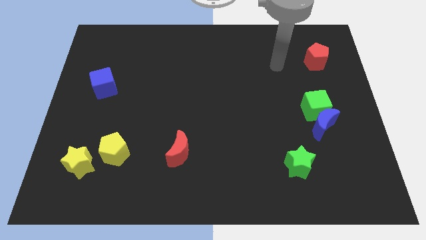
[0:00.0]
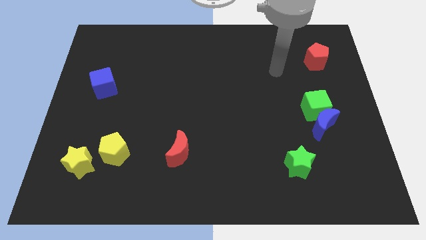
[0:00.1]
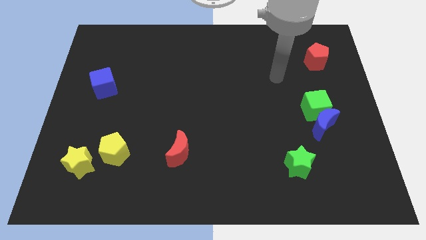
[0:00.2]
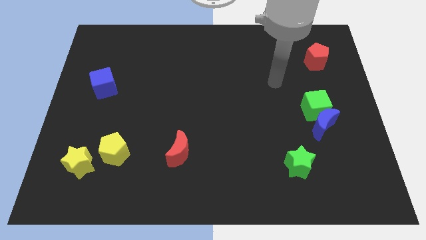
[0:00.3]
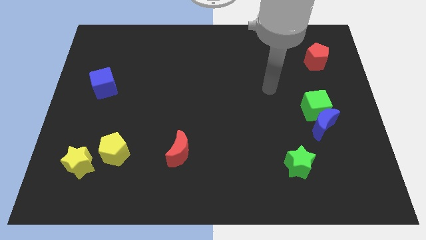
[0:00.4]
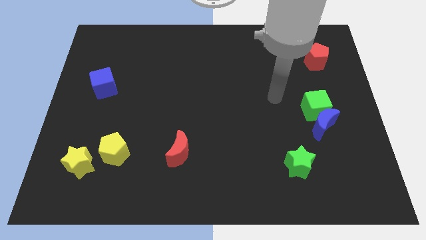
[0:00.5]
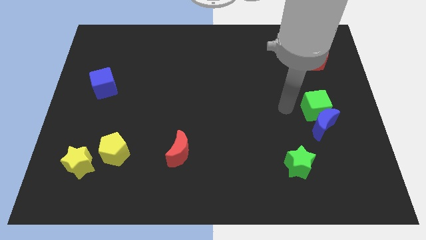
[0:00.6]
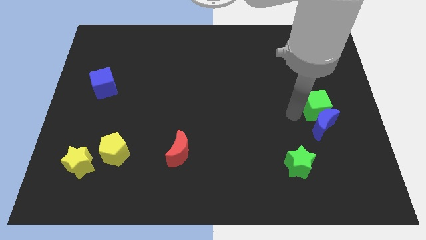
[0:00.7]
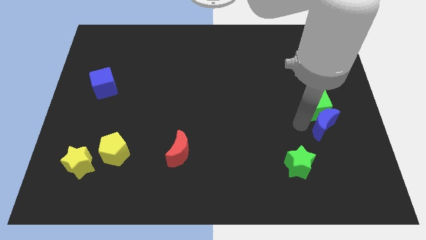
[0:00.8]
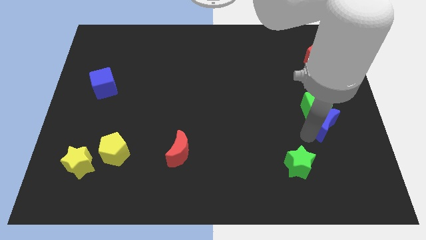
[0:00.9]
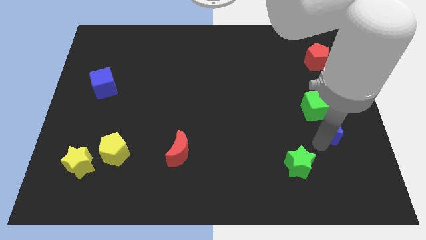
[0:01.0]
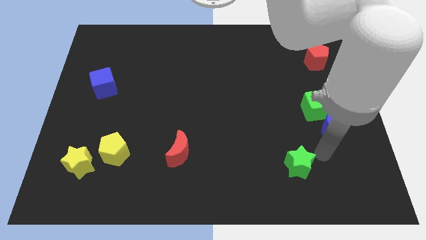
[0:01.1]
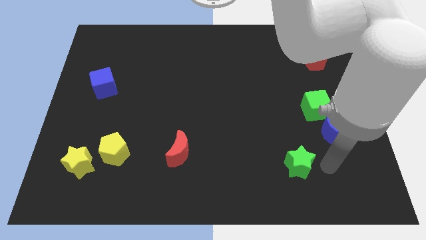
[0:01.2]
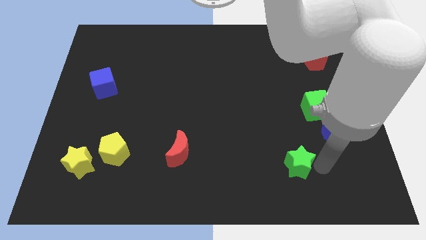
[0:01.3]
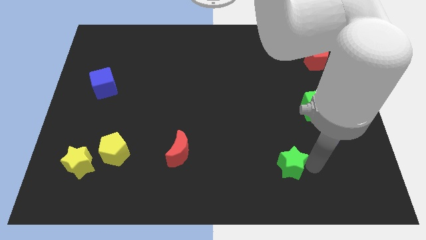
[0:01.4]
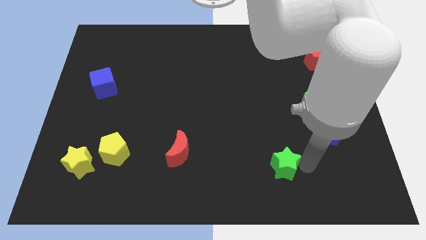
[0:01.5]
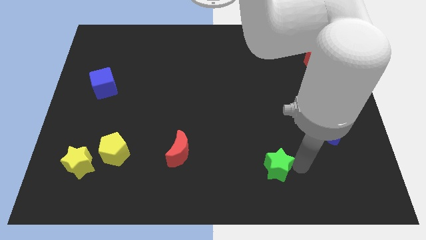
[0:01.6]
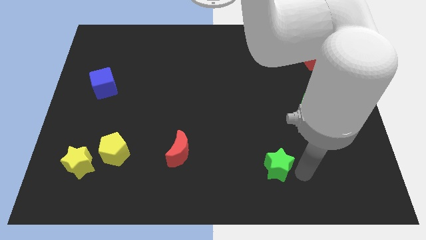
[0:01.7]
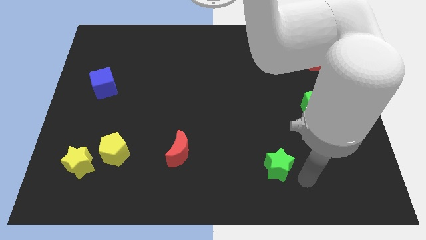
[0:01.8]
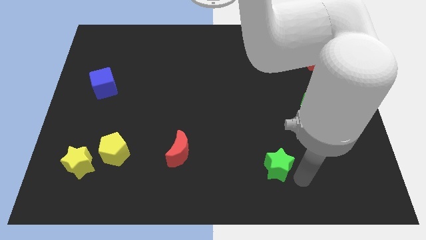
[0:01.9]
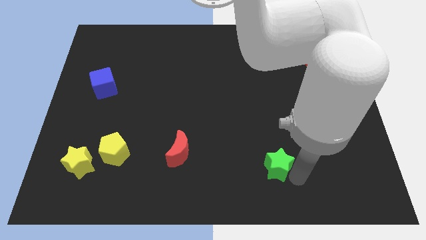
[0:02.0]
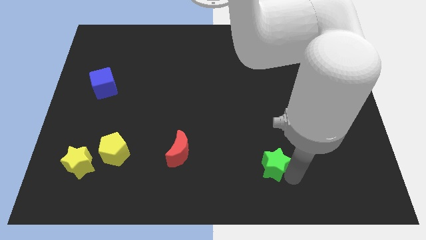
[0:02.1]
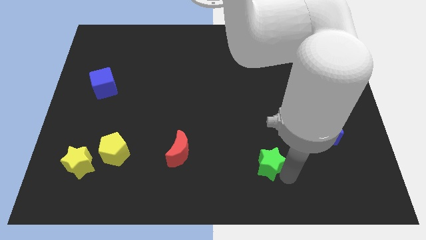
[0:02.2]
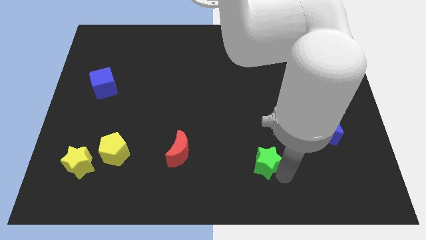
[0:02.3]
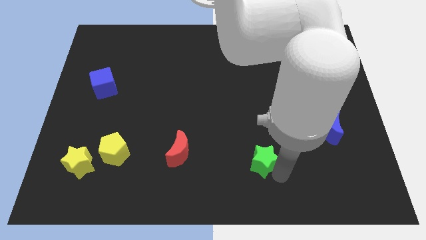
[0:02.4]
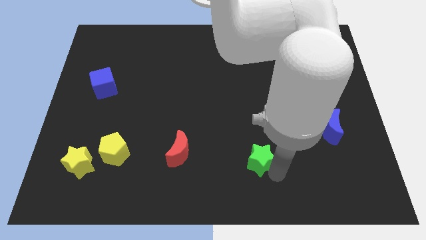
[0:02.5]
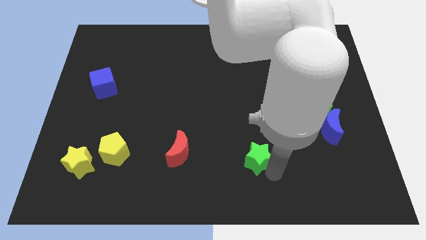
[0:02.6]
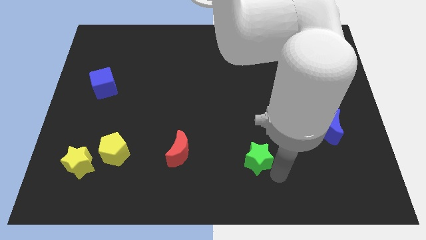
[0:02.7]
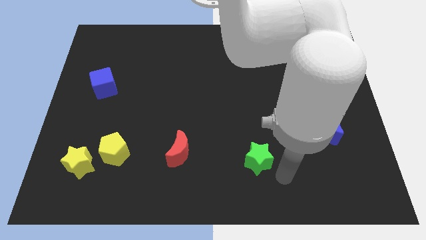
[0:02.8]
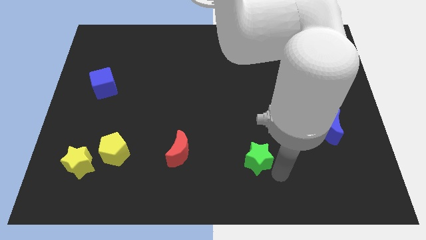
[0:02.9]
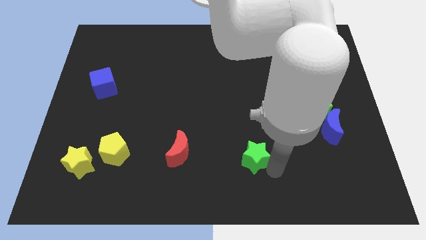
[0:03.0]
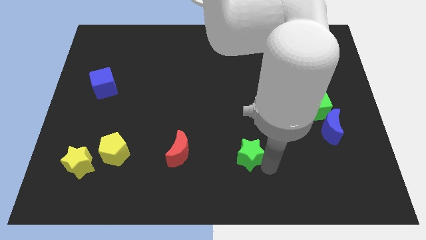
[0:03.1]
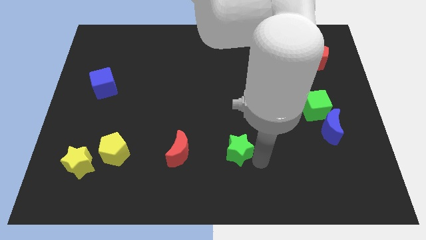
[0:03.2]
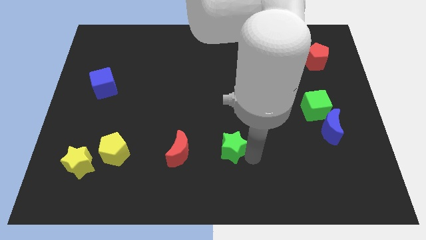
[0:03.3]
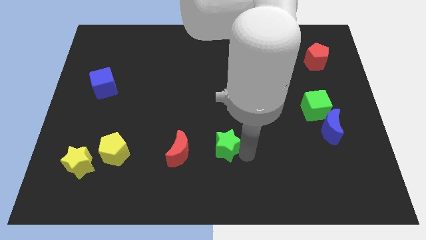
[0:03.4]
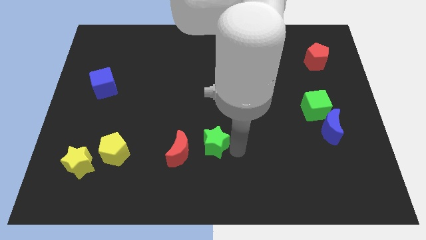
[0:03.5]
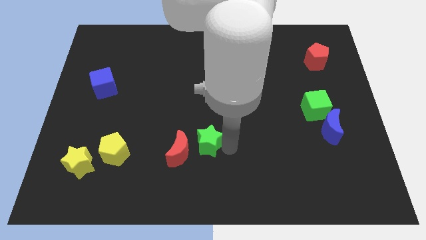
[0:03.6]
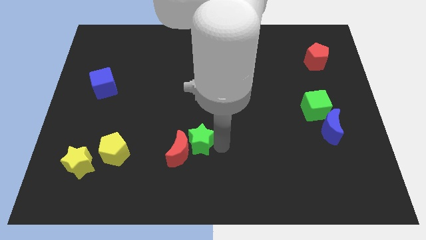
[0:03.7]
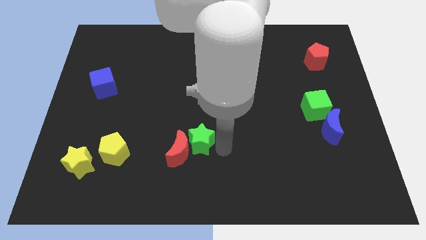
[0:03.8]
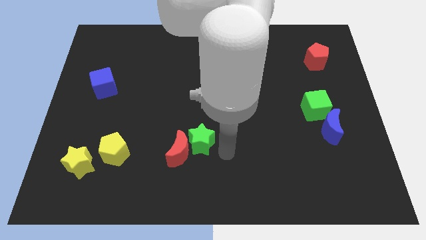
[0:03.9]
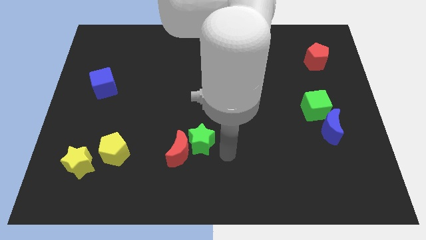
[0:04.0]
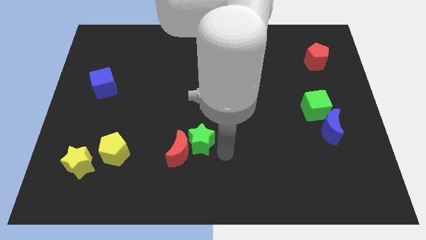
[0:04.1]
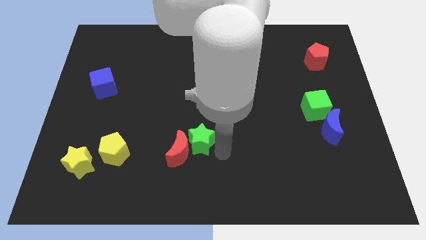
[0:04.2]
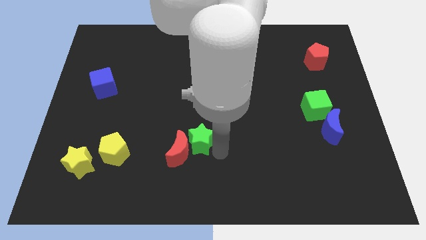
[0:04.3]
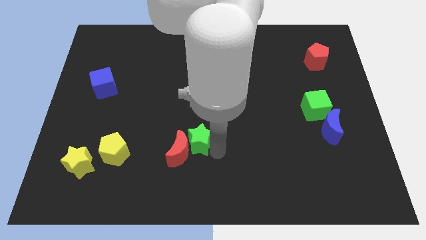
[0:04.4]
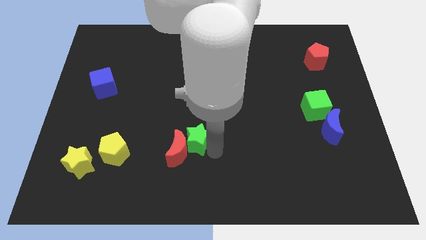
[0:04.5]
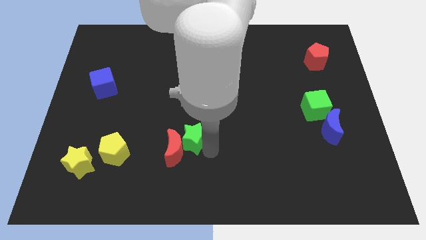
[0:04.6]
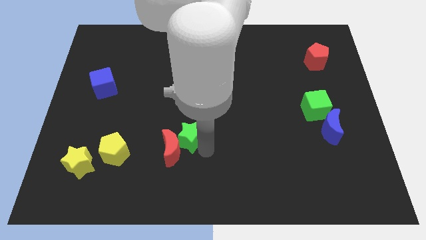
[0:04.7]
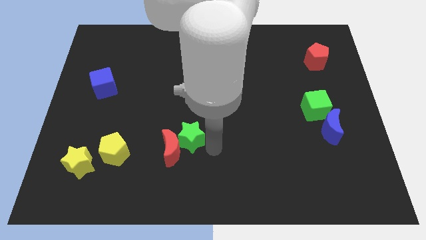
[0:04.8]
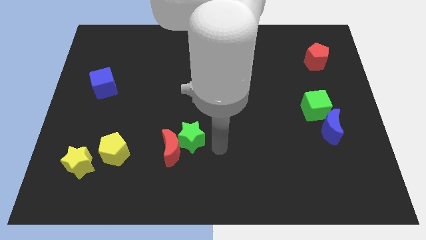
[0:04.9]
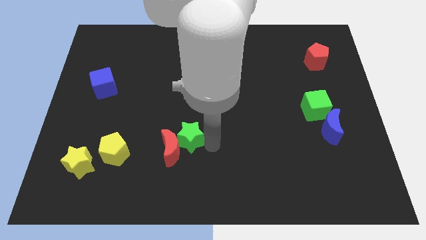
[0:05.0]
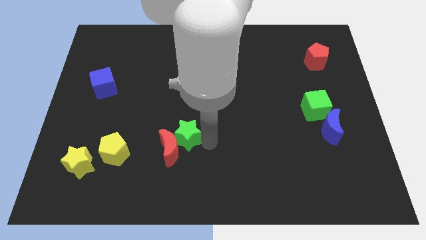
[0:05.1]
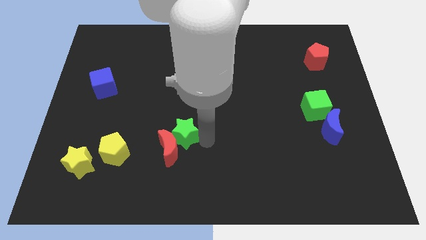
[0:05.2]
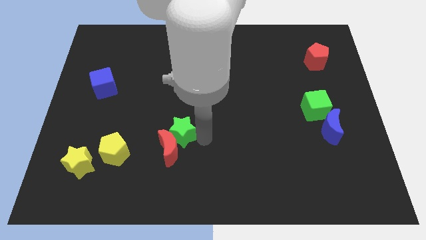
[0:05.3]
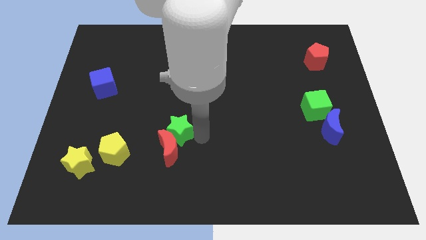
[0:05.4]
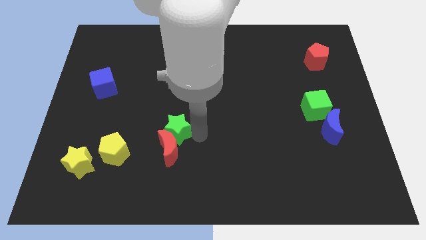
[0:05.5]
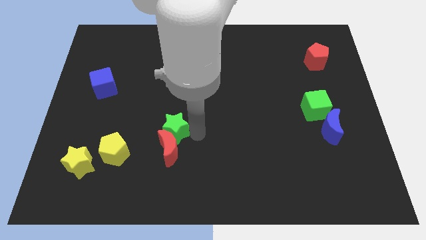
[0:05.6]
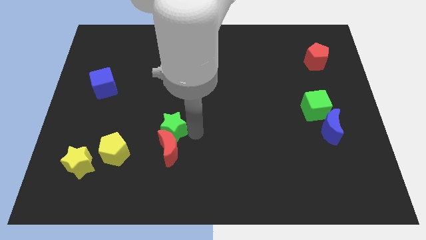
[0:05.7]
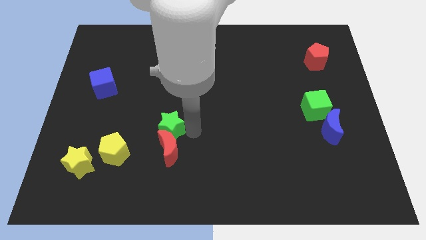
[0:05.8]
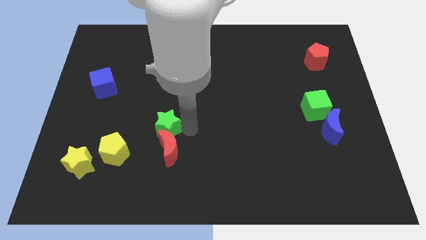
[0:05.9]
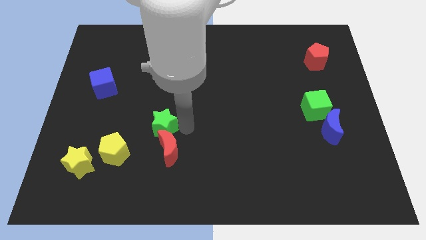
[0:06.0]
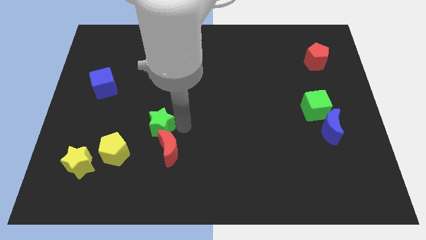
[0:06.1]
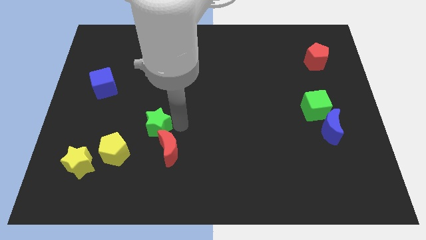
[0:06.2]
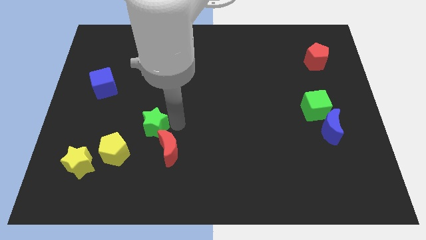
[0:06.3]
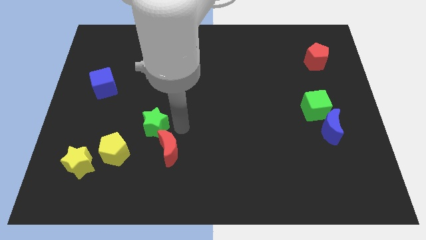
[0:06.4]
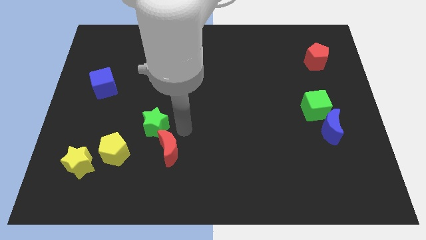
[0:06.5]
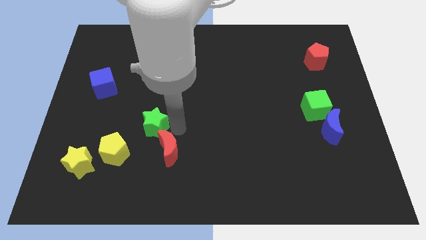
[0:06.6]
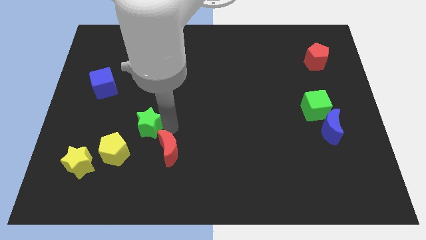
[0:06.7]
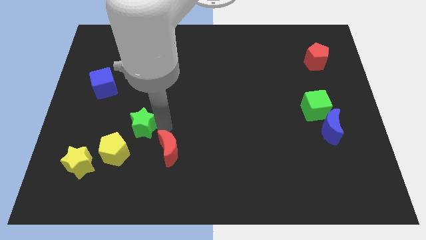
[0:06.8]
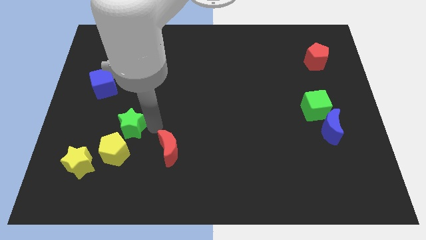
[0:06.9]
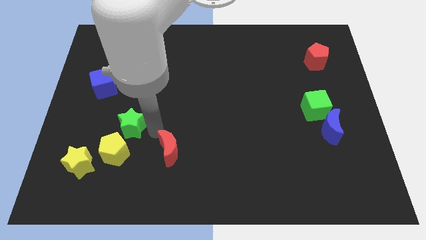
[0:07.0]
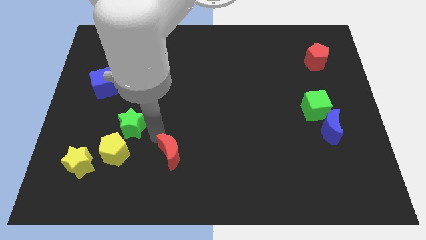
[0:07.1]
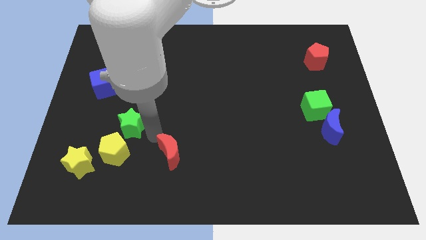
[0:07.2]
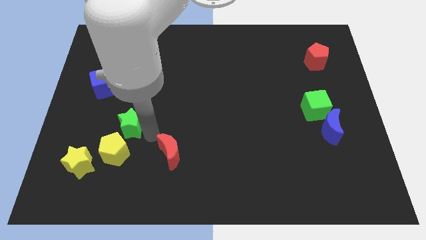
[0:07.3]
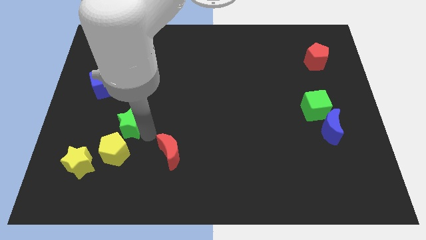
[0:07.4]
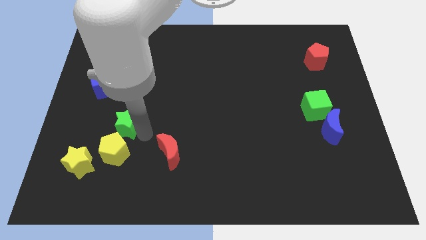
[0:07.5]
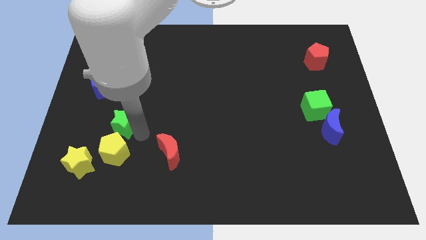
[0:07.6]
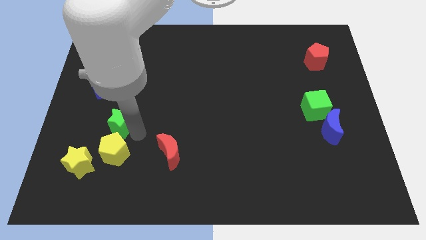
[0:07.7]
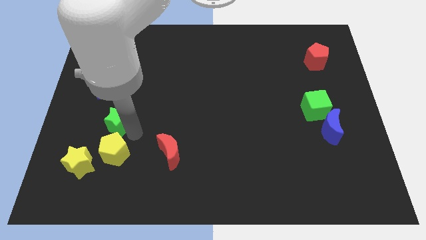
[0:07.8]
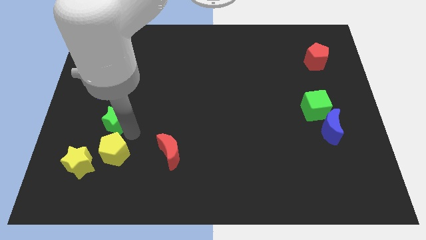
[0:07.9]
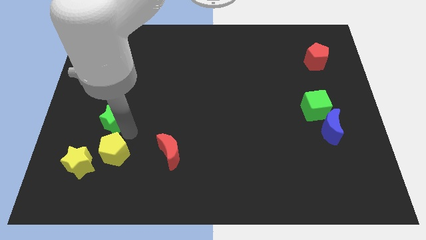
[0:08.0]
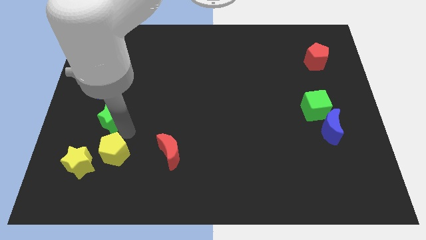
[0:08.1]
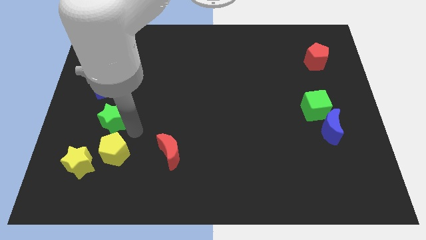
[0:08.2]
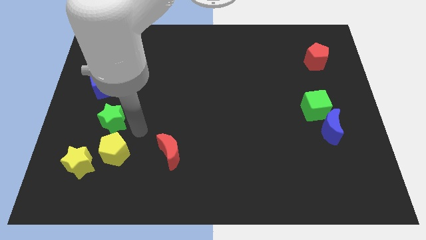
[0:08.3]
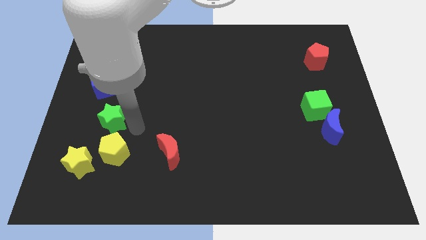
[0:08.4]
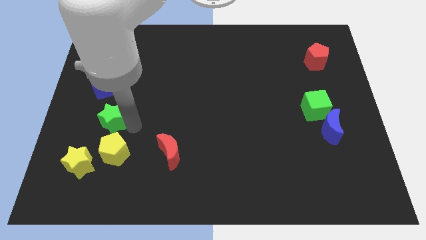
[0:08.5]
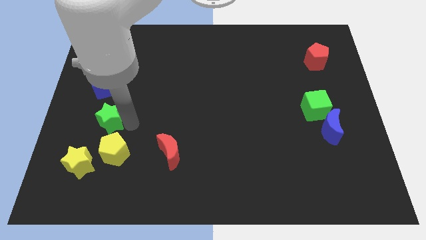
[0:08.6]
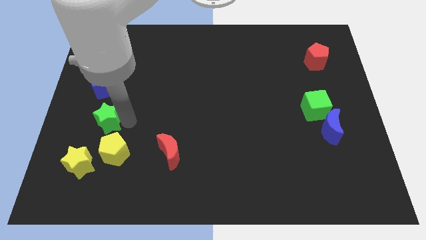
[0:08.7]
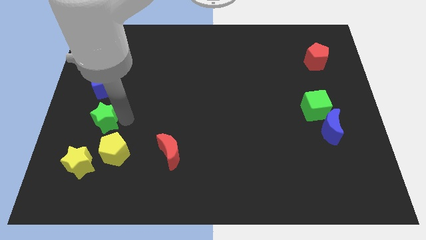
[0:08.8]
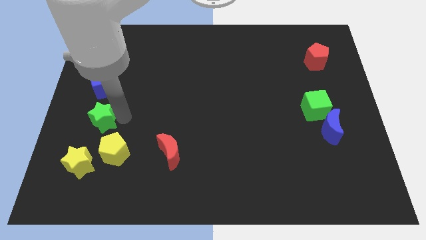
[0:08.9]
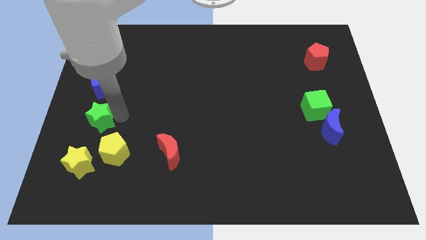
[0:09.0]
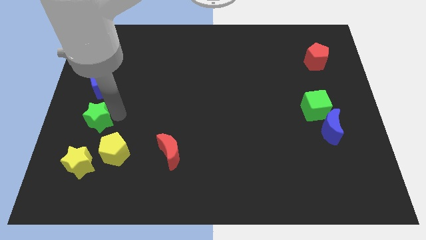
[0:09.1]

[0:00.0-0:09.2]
move the green star to the left side
